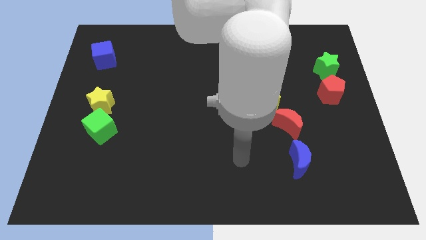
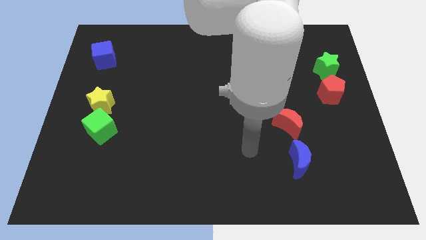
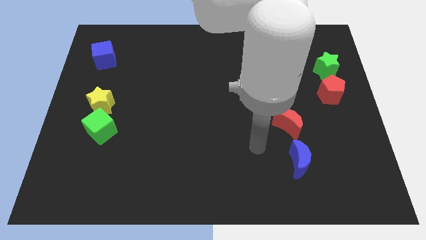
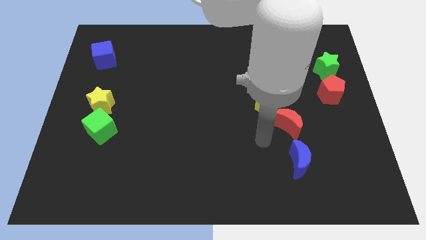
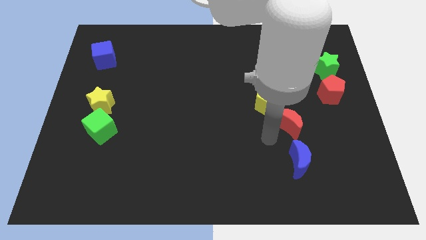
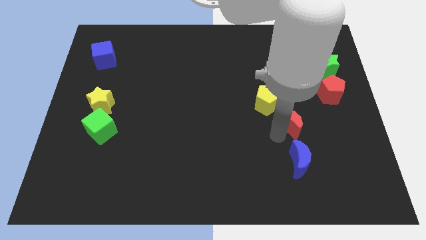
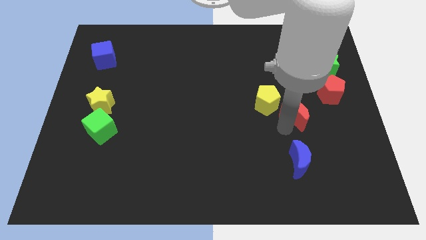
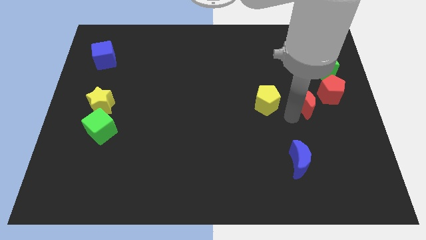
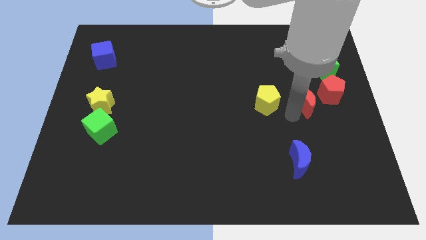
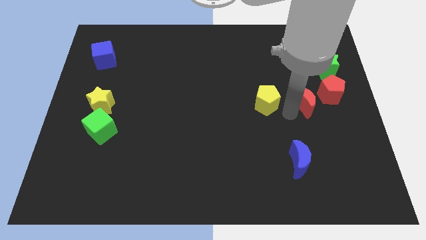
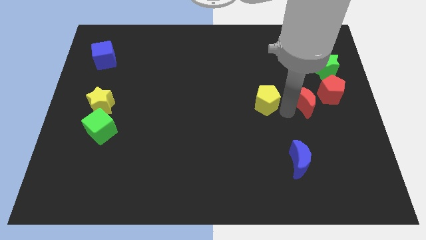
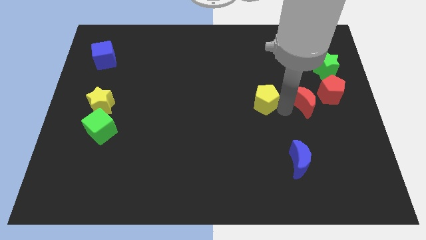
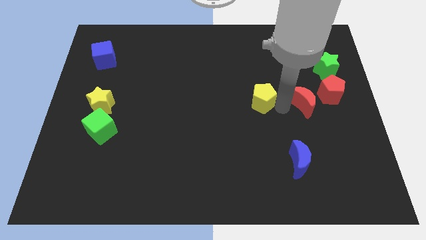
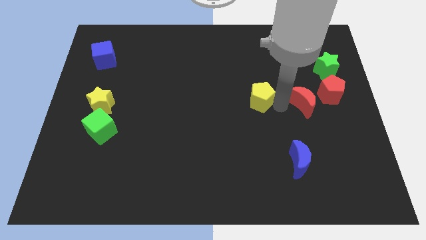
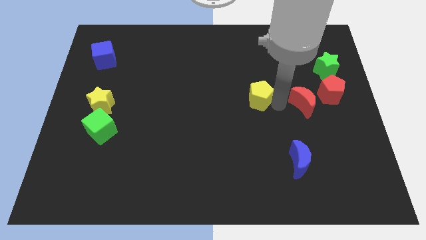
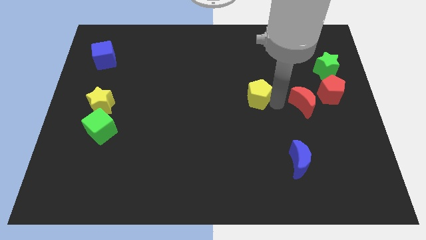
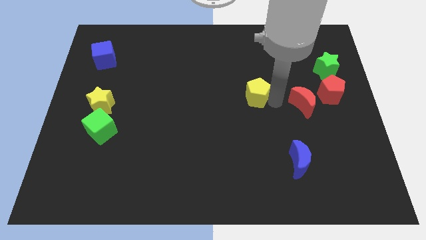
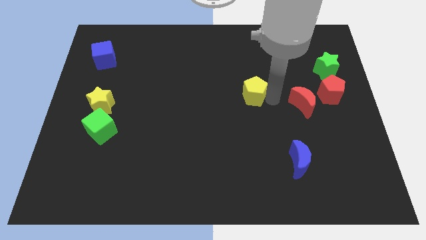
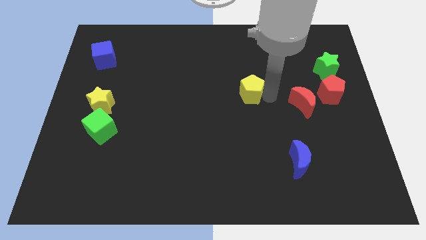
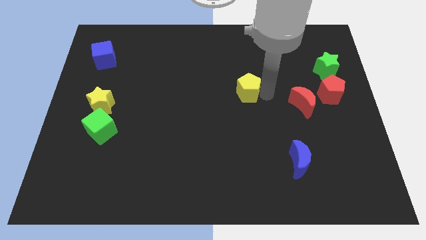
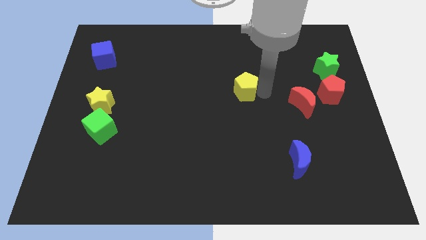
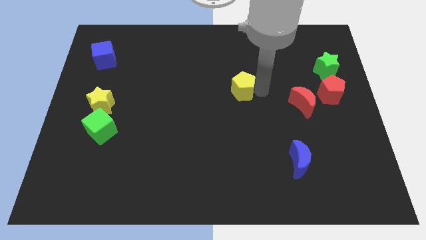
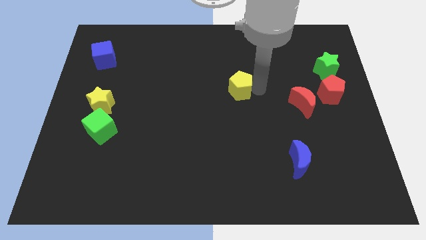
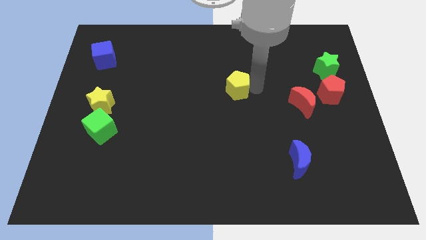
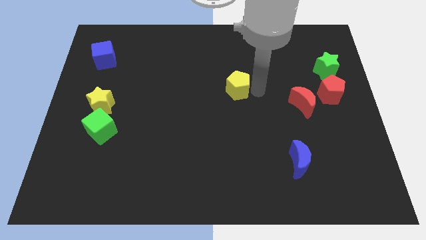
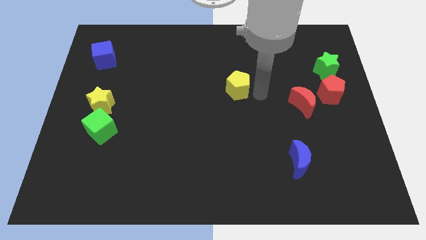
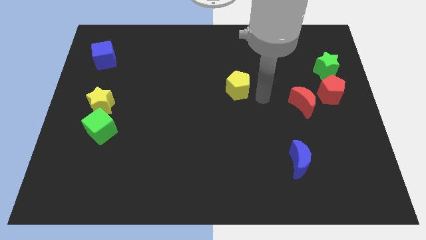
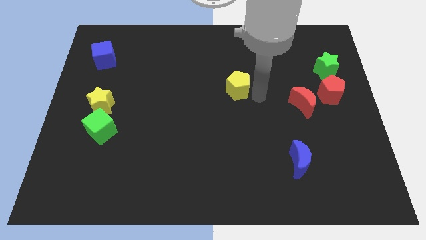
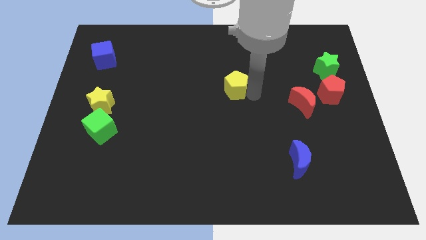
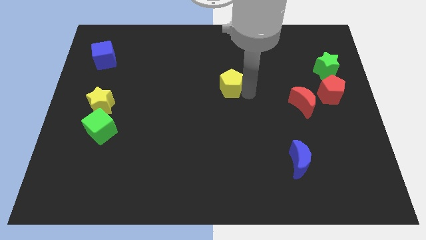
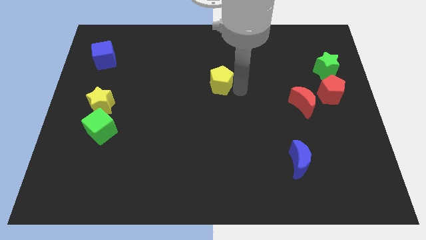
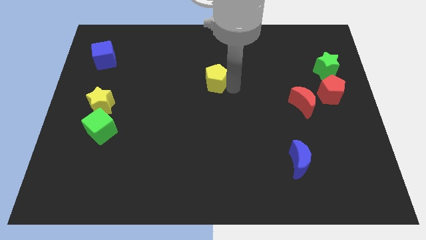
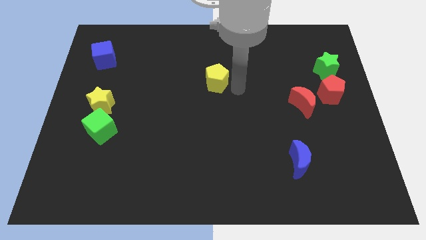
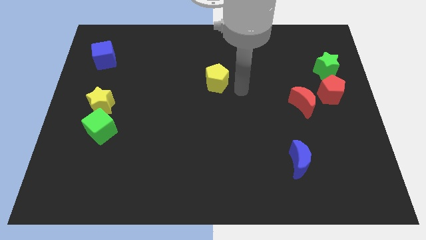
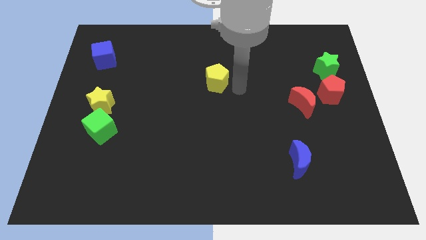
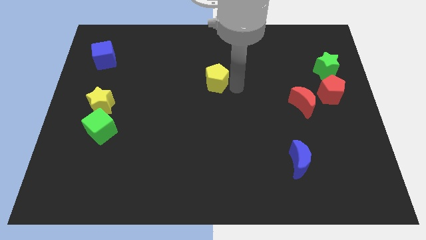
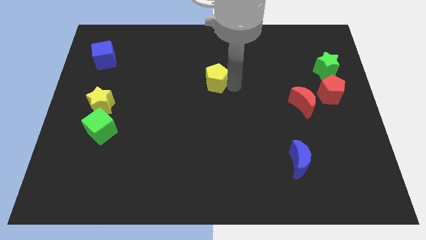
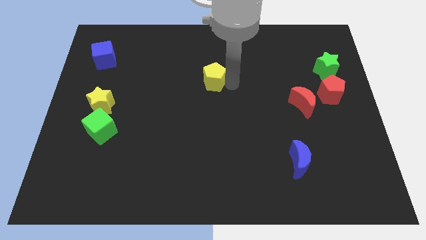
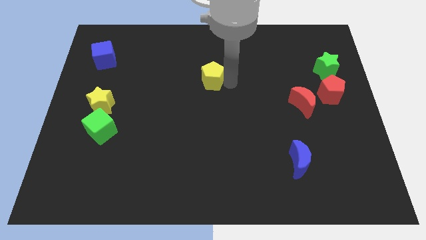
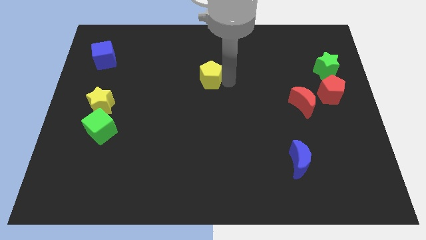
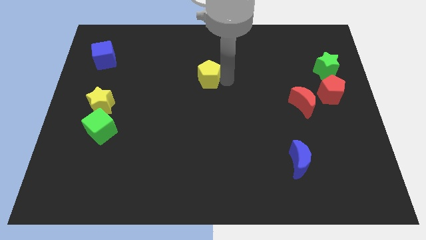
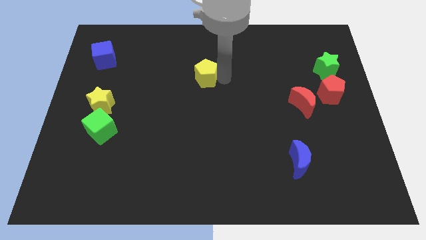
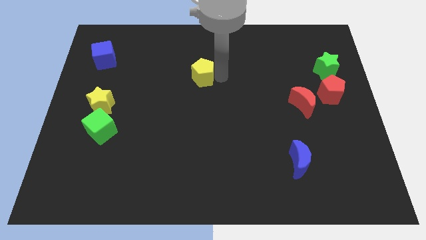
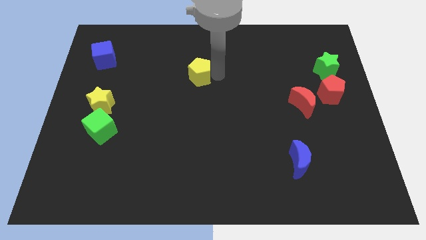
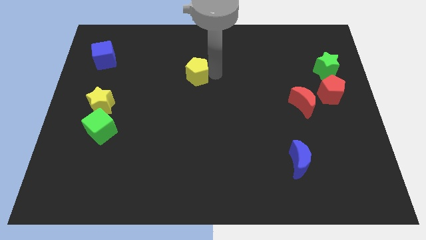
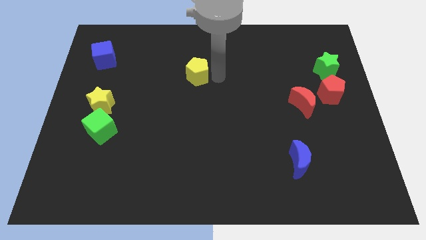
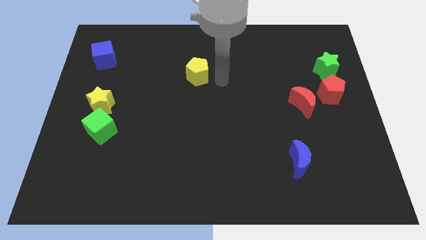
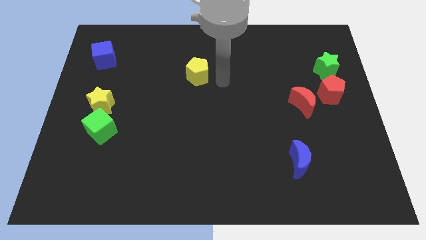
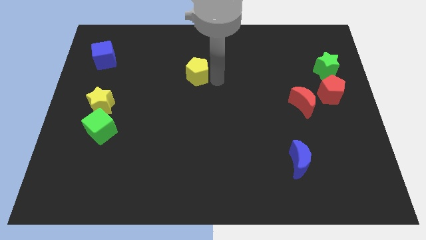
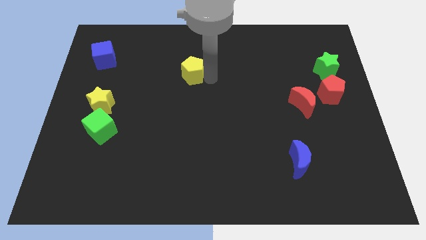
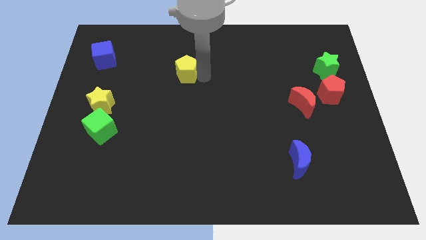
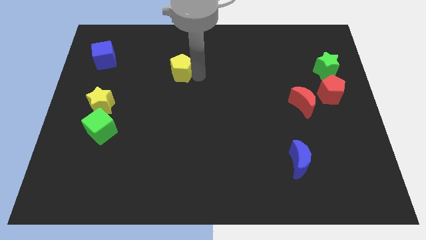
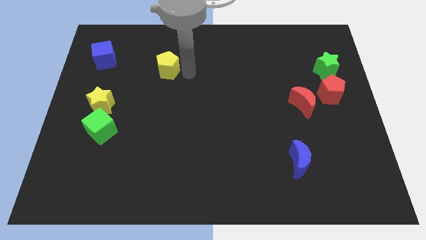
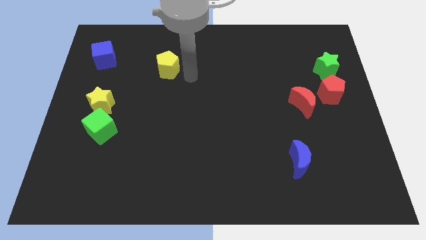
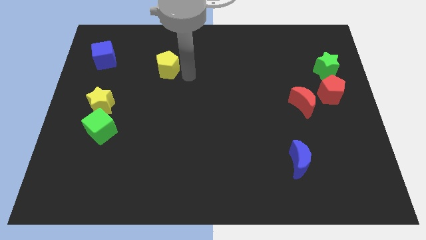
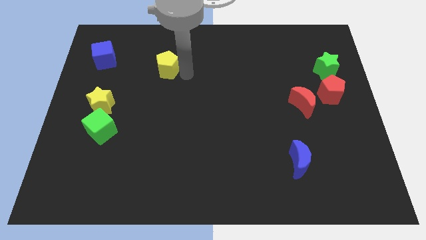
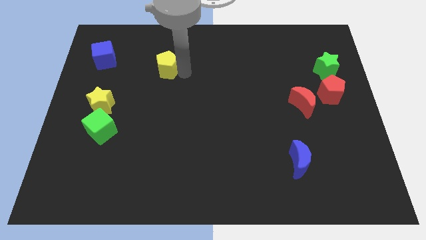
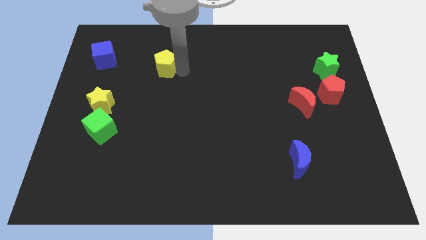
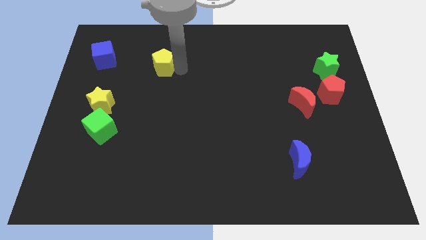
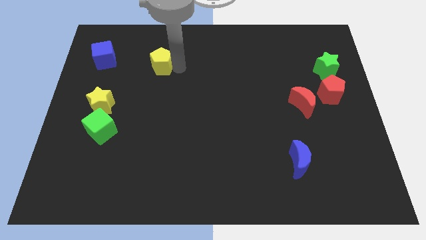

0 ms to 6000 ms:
put the yellow pentagon to the right side of the blue cube

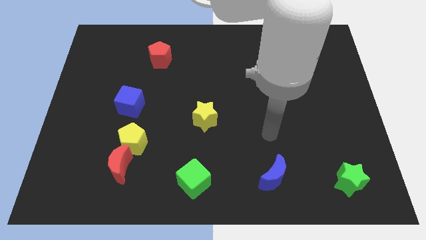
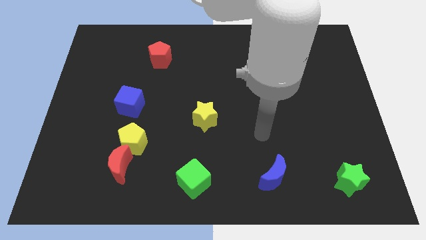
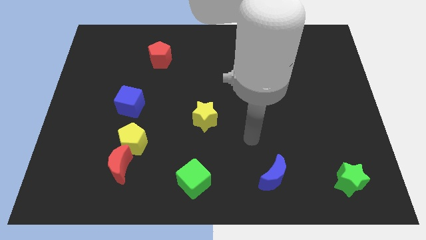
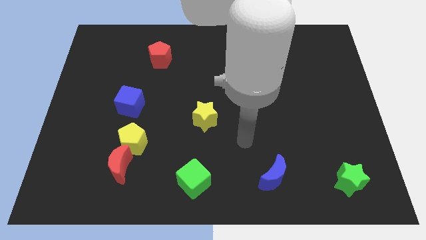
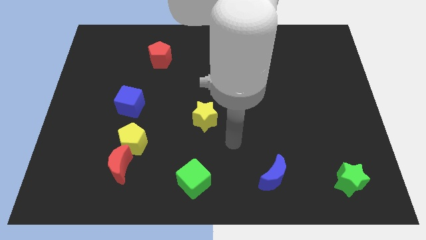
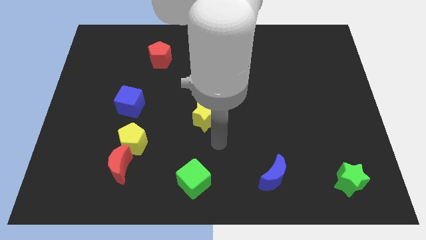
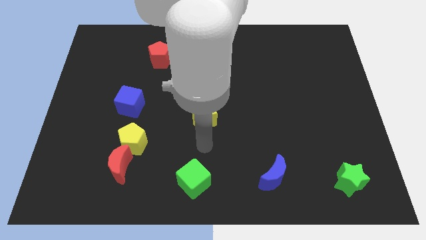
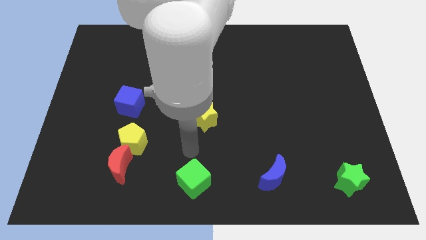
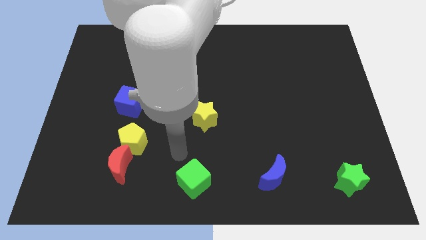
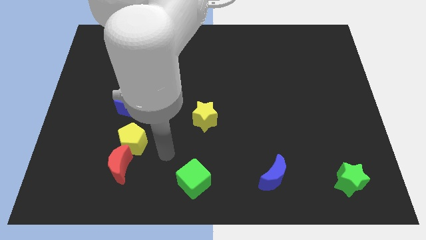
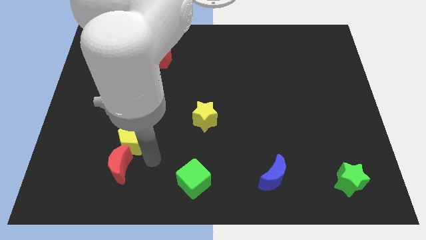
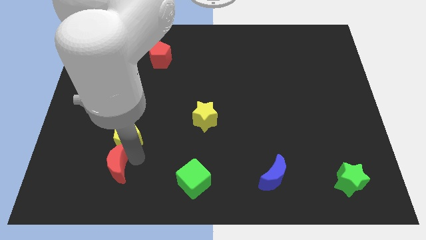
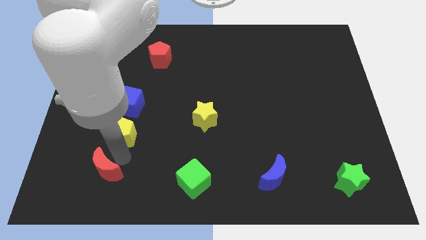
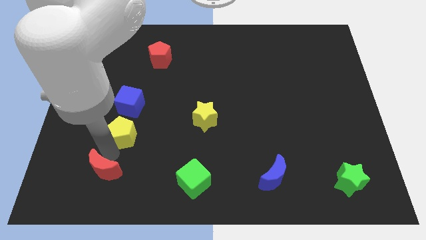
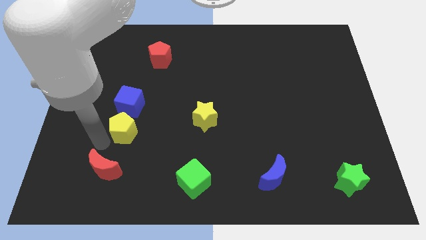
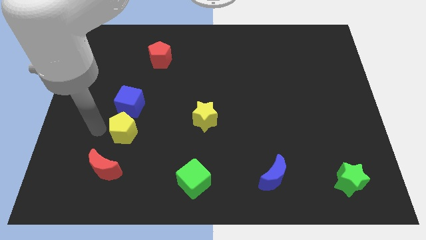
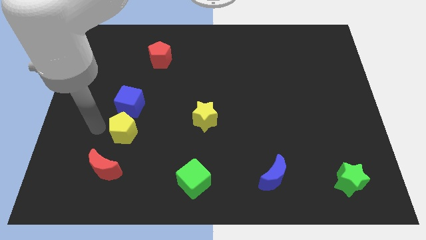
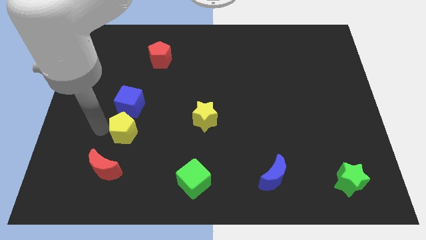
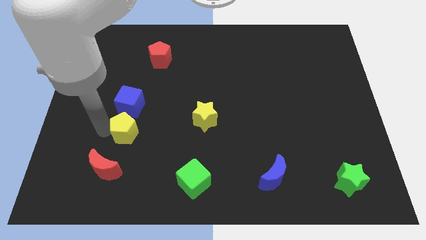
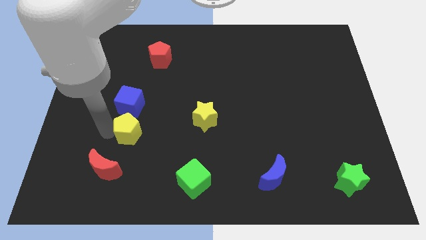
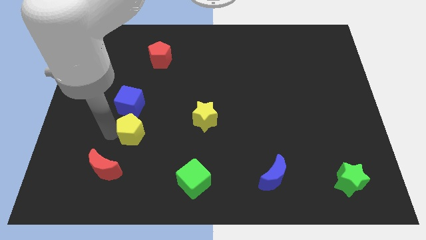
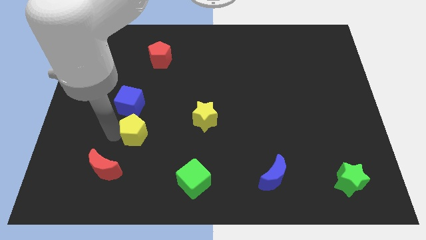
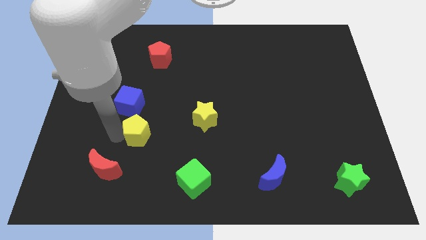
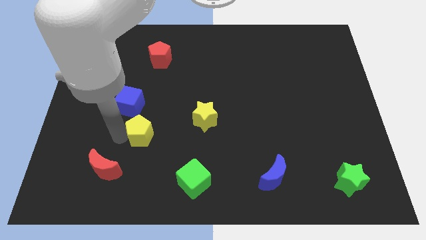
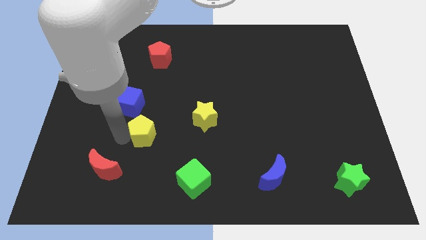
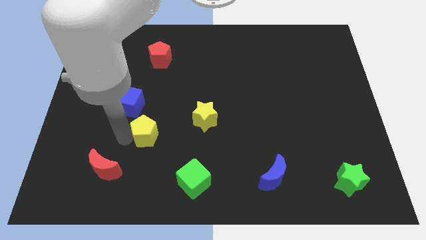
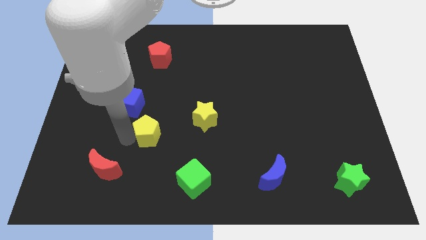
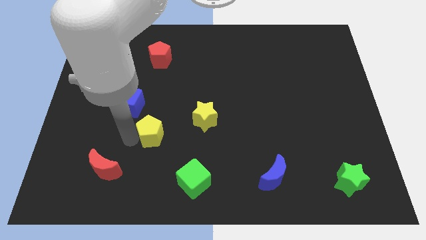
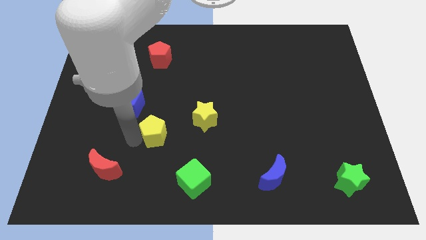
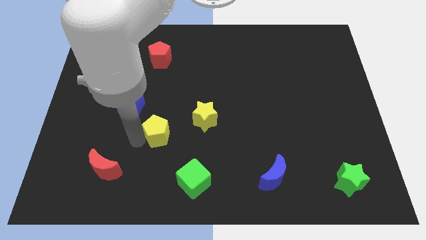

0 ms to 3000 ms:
move the yellow pentagon to the bottom left side of the yellow star
